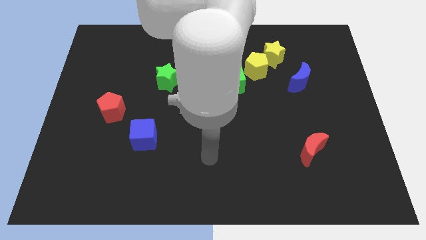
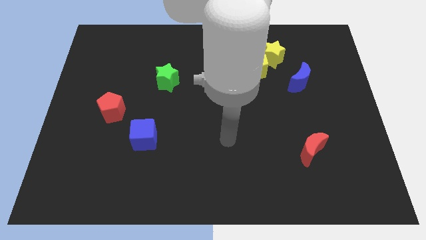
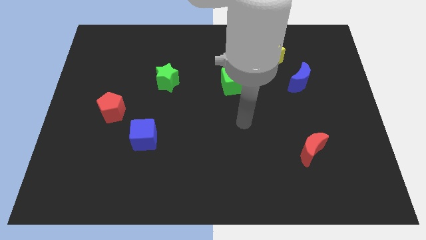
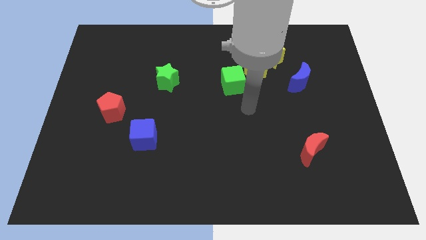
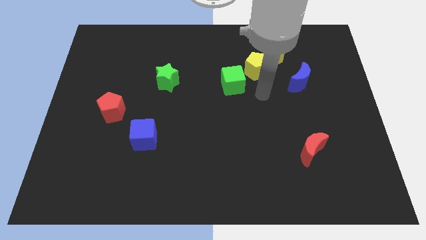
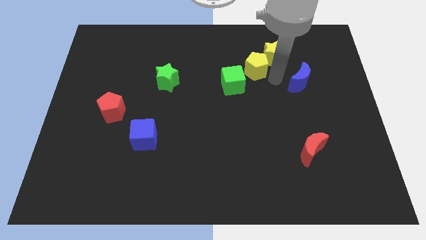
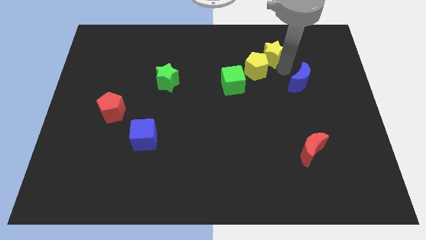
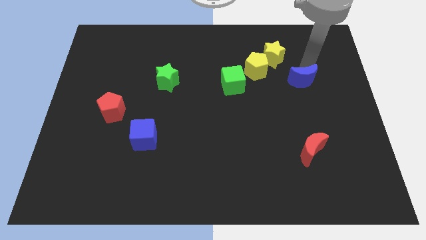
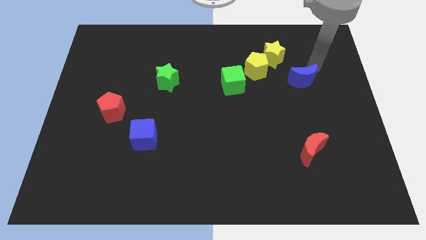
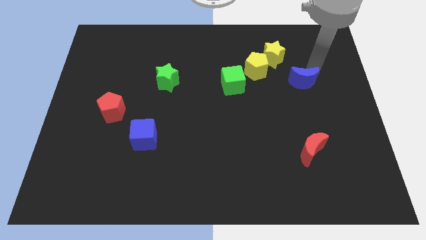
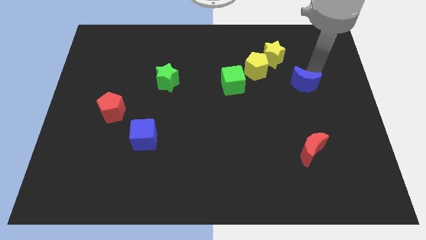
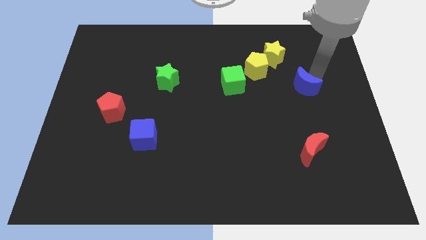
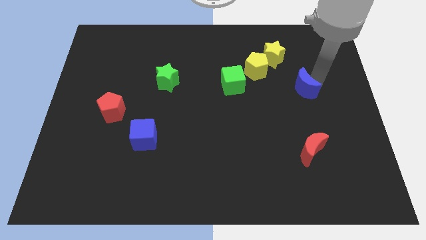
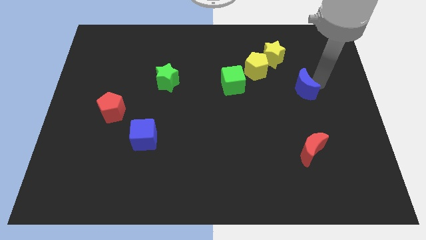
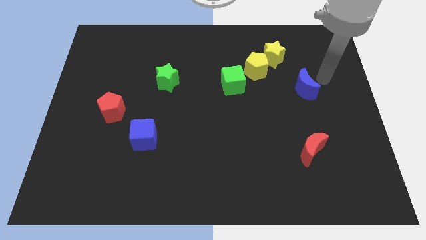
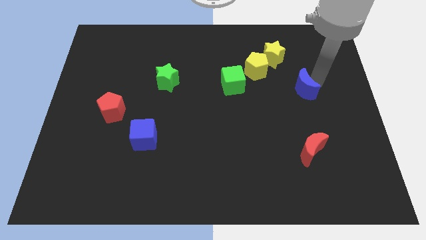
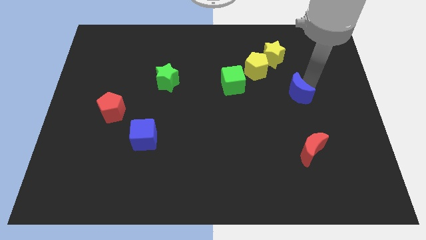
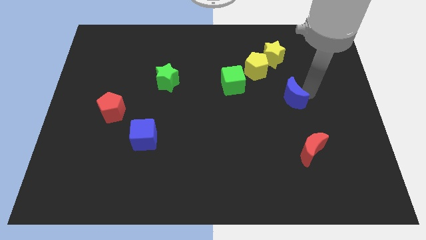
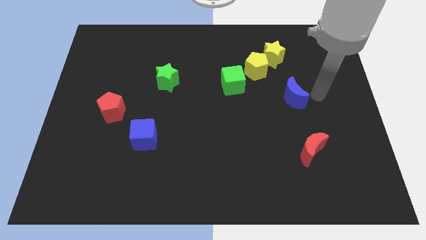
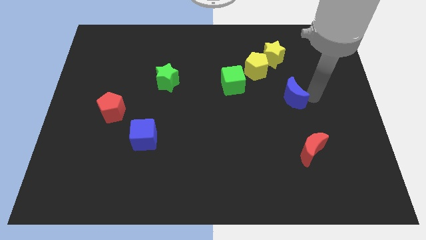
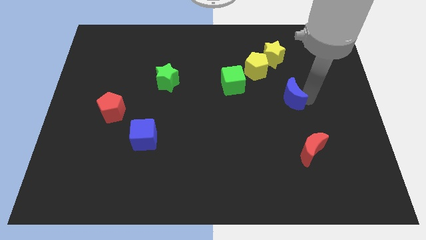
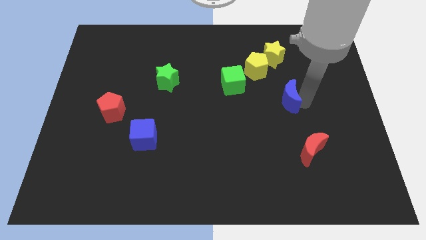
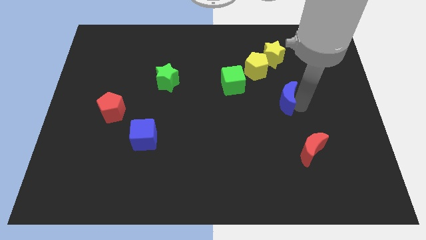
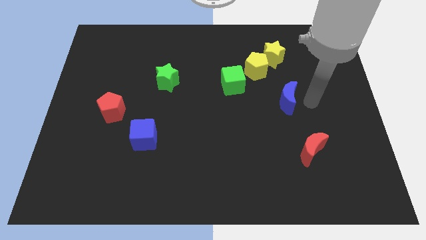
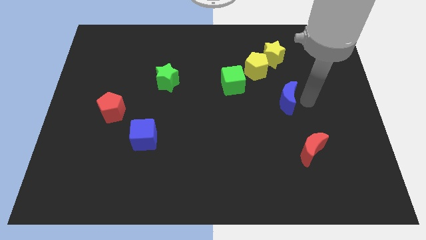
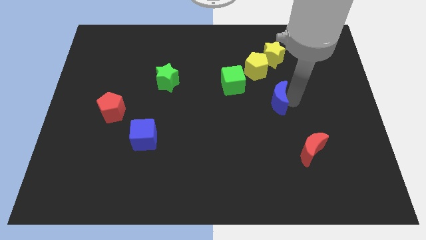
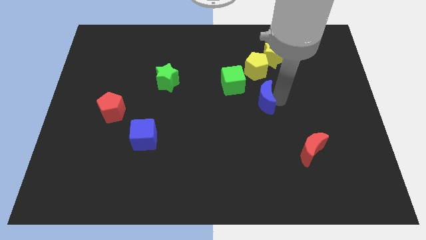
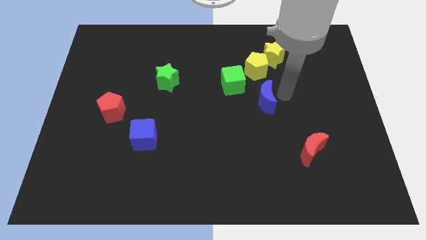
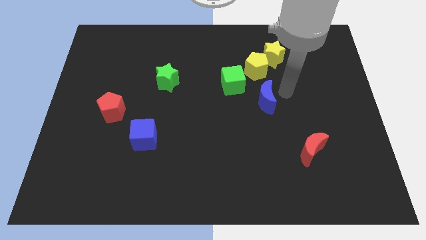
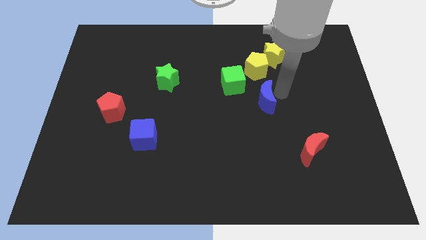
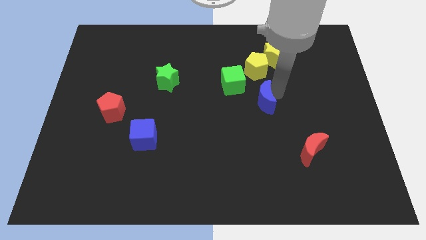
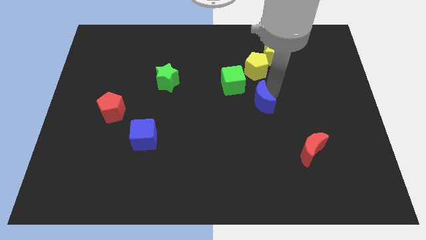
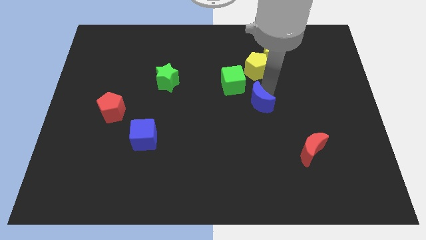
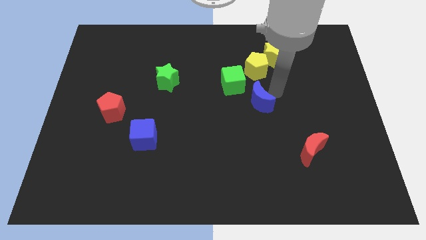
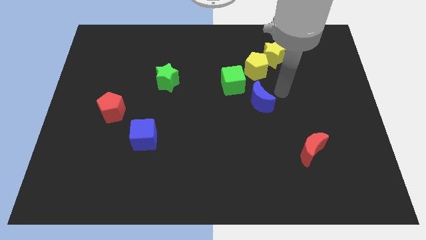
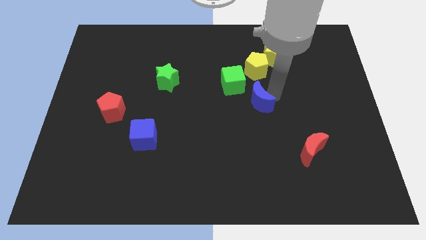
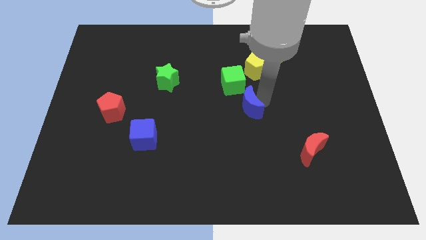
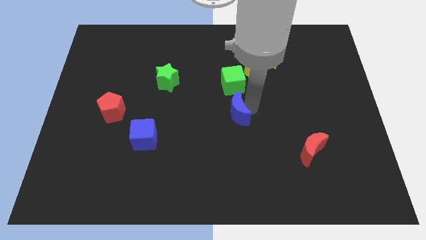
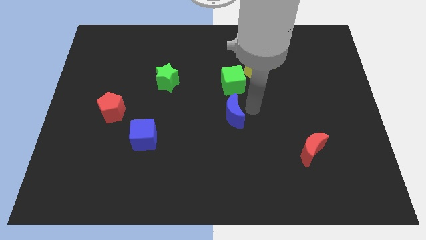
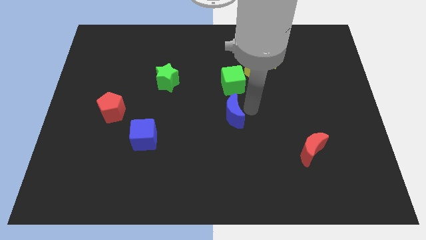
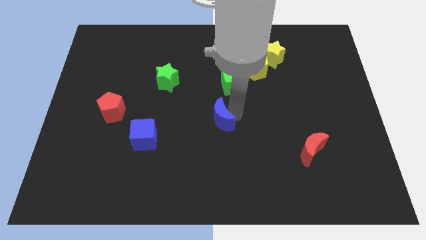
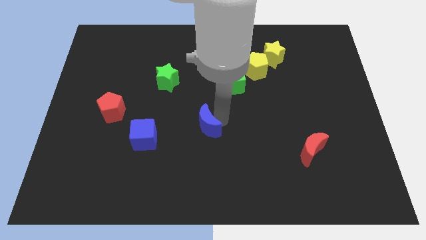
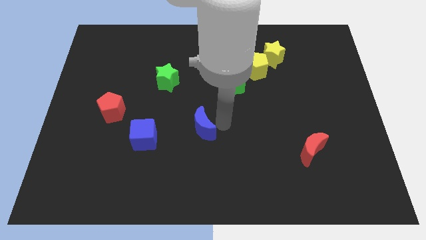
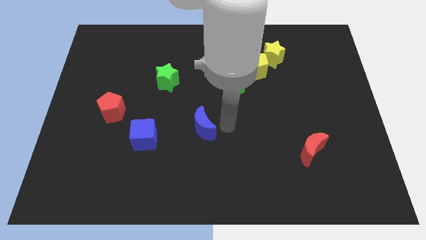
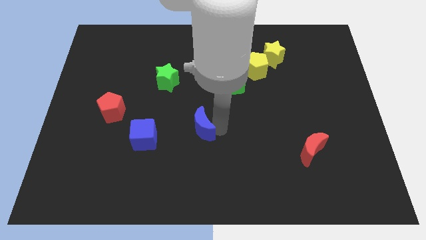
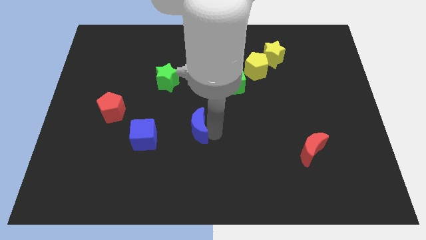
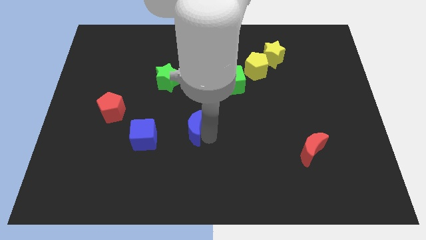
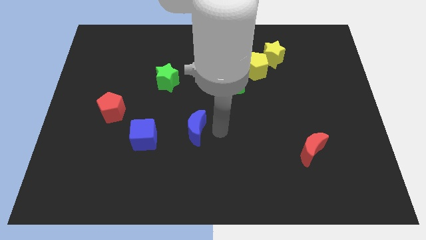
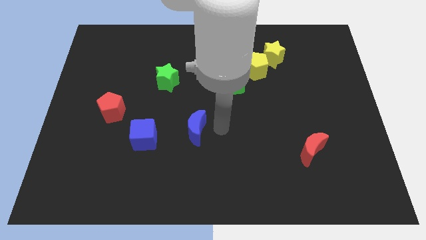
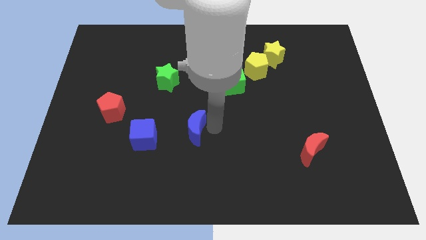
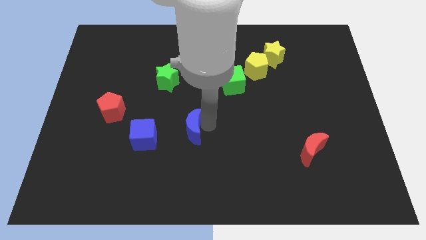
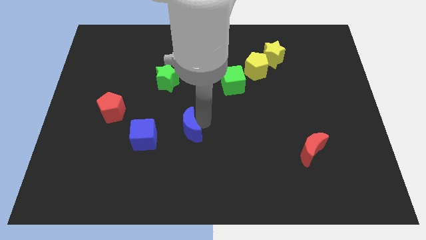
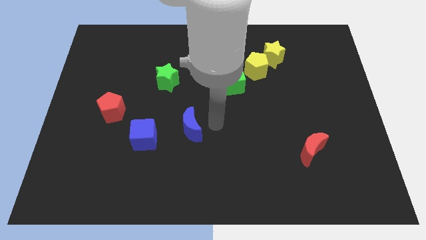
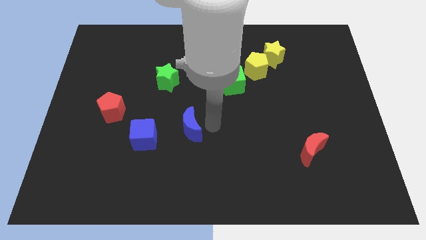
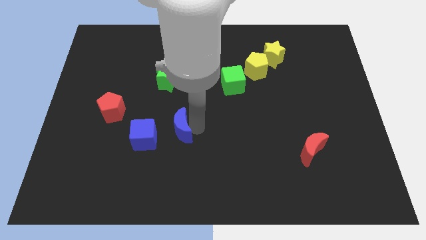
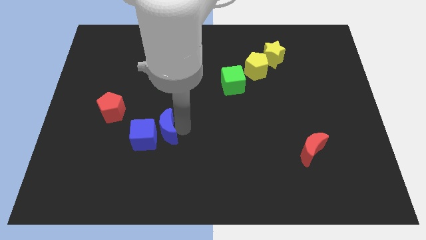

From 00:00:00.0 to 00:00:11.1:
move the blue moon next to the blue cube

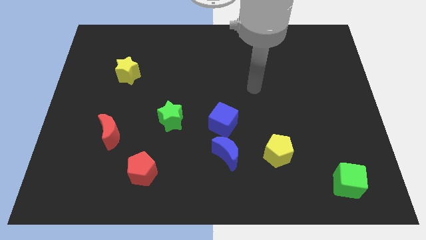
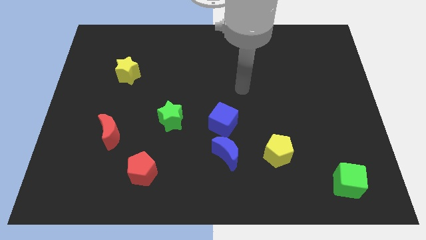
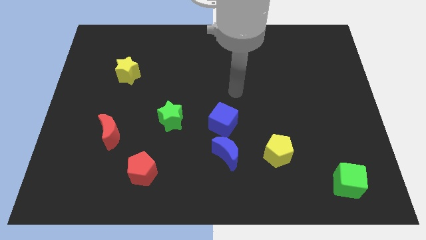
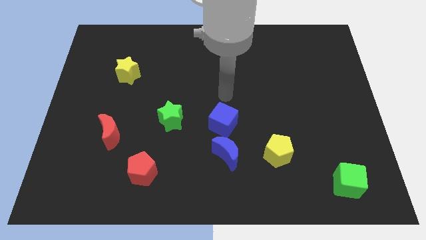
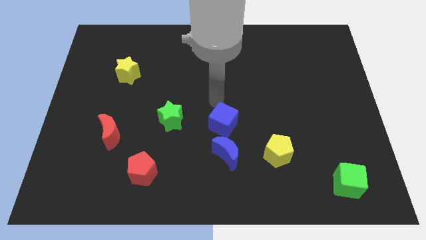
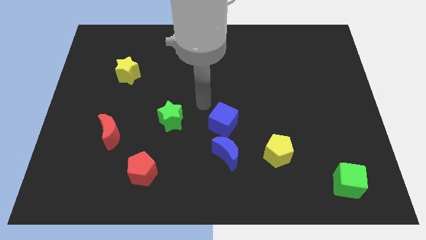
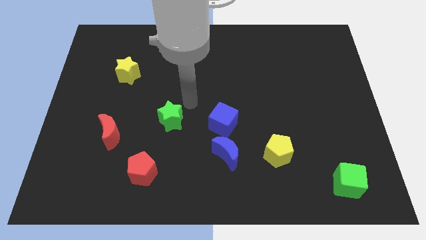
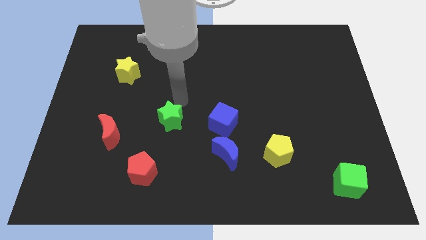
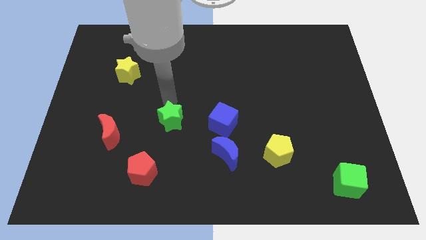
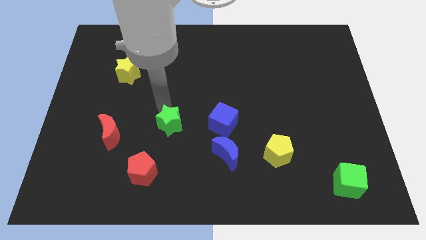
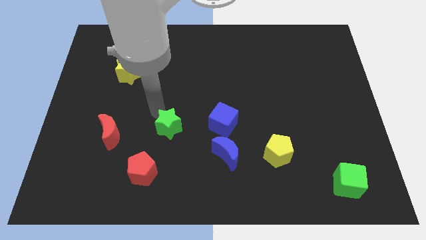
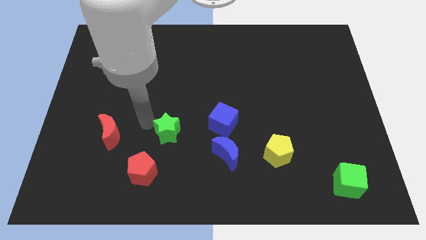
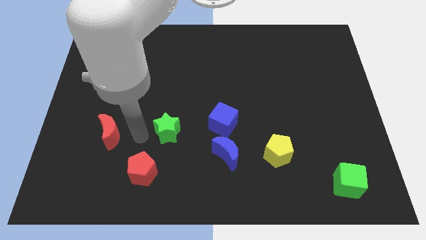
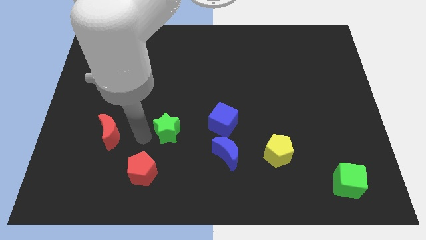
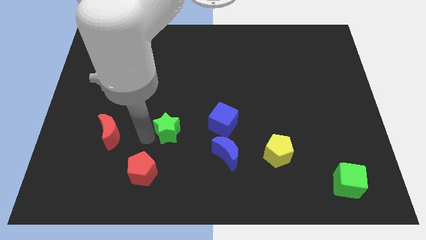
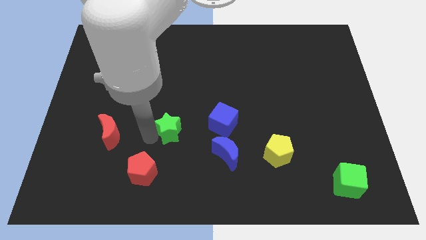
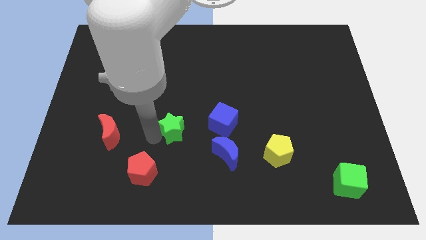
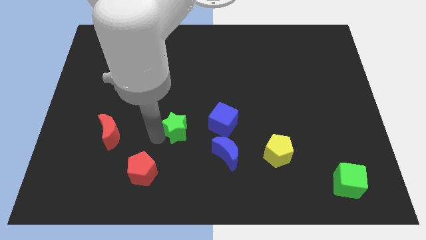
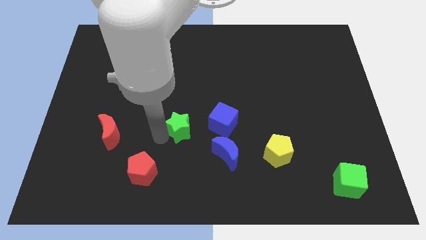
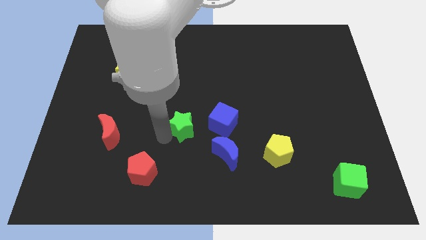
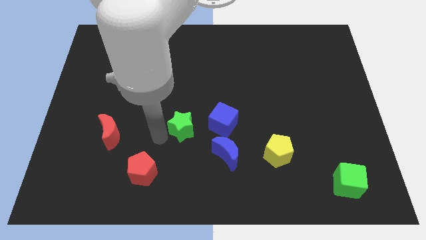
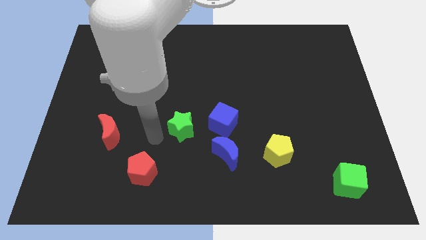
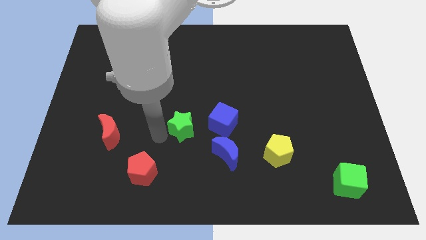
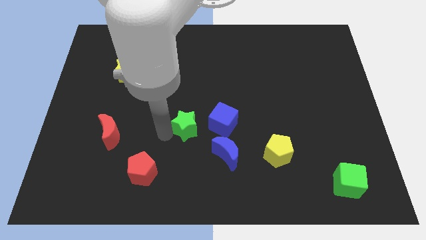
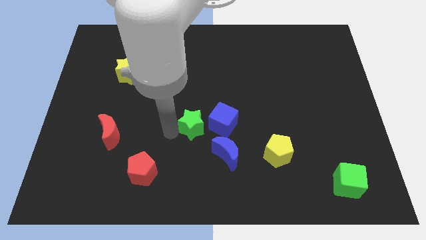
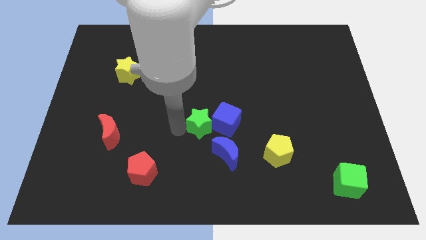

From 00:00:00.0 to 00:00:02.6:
slide the green star to the blue cube
